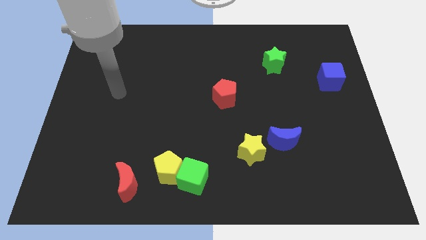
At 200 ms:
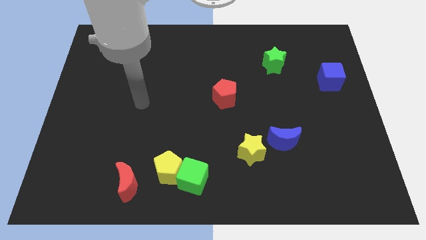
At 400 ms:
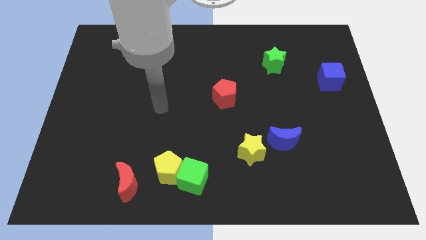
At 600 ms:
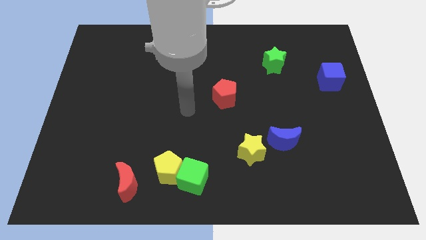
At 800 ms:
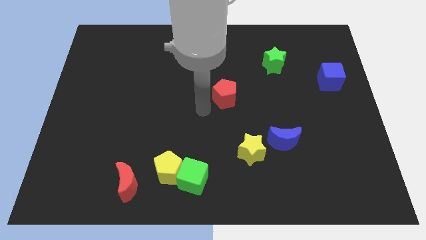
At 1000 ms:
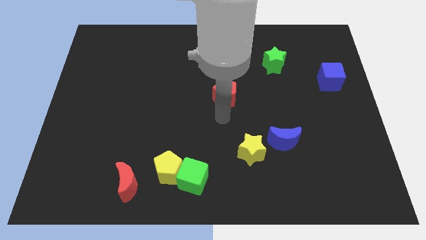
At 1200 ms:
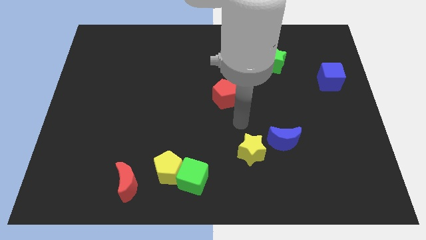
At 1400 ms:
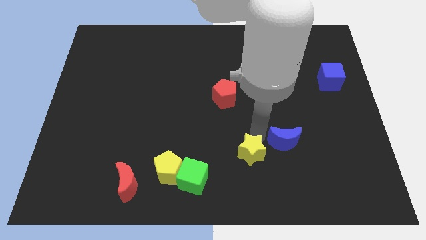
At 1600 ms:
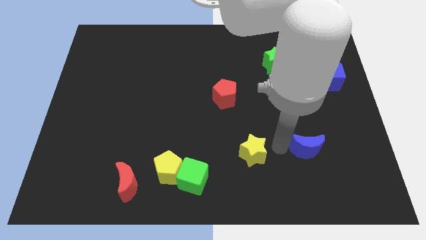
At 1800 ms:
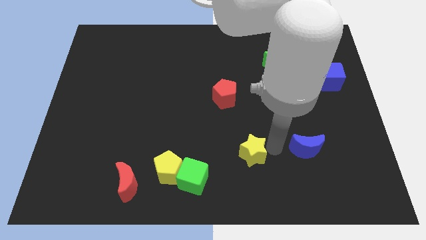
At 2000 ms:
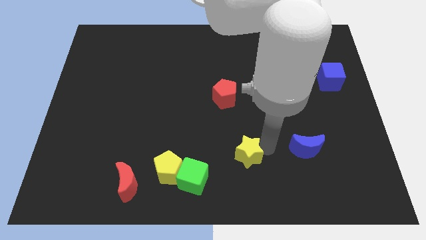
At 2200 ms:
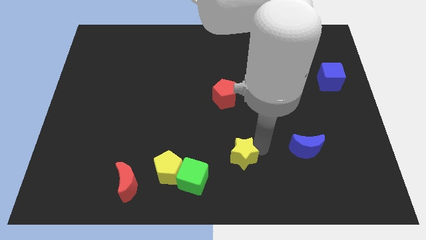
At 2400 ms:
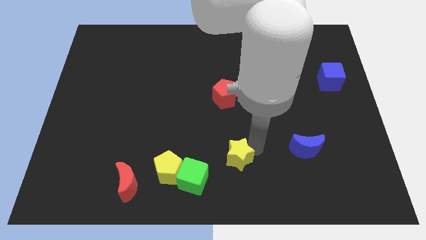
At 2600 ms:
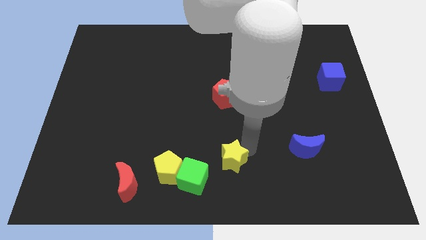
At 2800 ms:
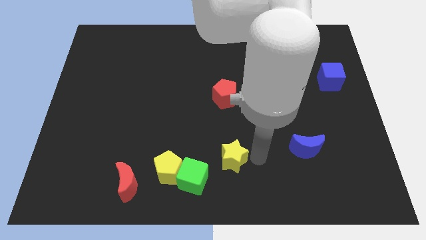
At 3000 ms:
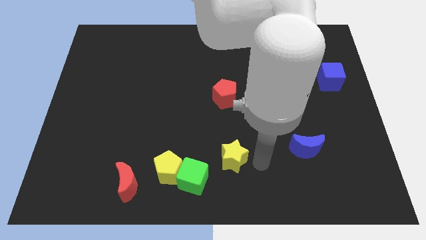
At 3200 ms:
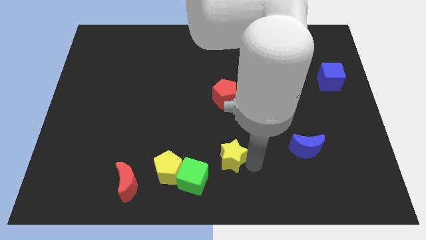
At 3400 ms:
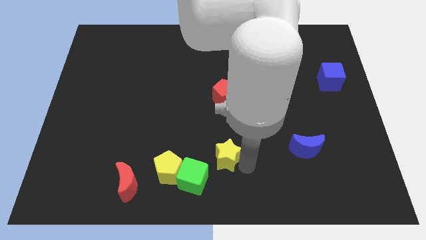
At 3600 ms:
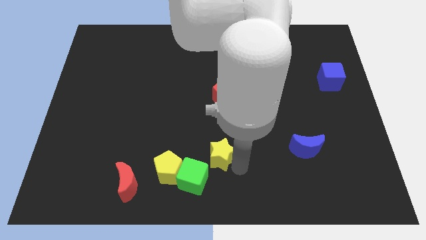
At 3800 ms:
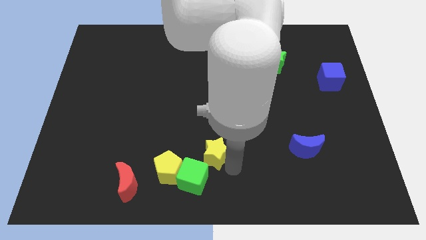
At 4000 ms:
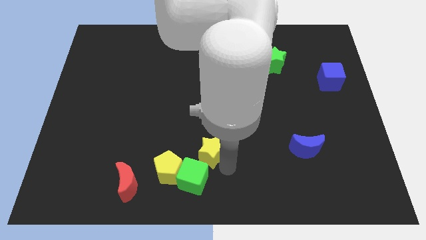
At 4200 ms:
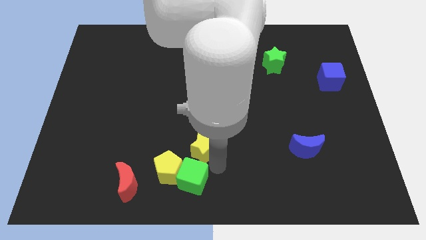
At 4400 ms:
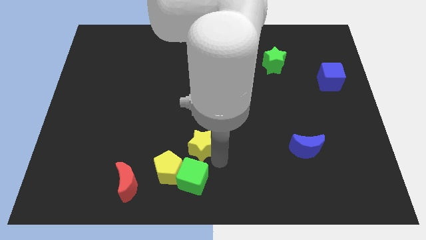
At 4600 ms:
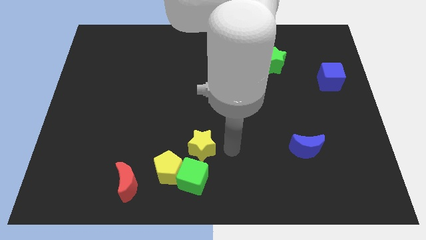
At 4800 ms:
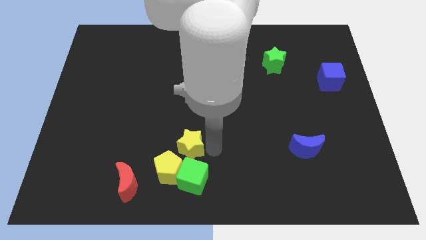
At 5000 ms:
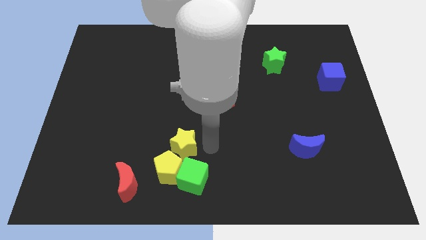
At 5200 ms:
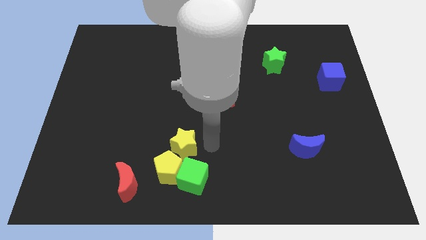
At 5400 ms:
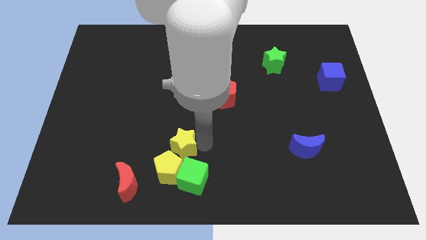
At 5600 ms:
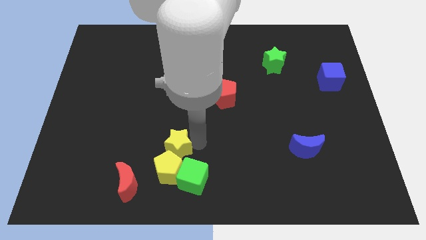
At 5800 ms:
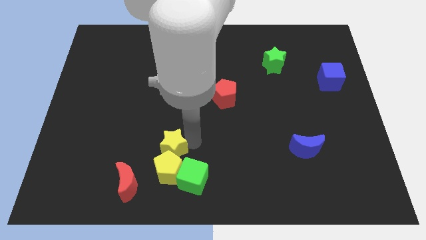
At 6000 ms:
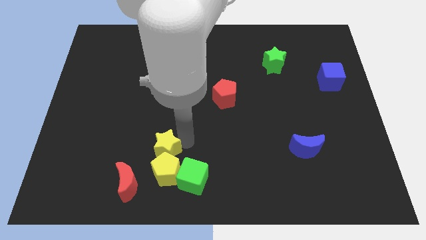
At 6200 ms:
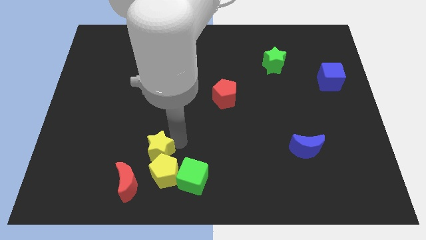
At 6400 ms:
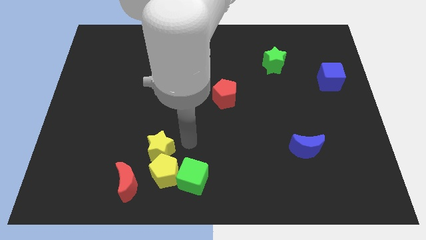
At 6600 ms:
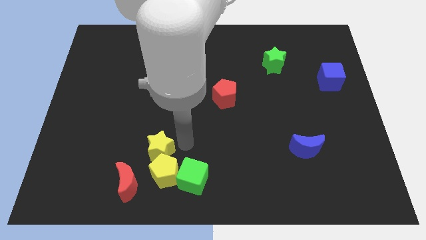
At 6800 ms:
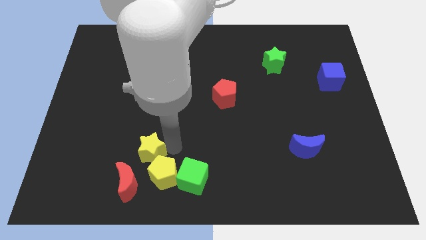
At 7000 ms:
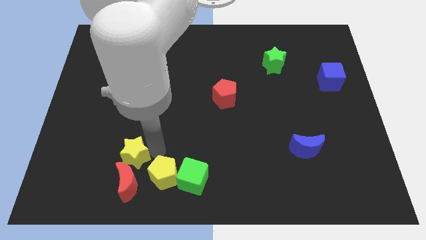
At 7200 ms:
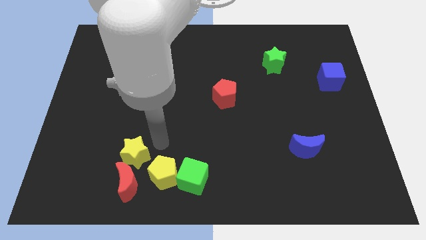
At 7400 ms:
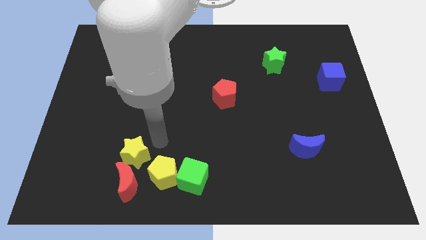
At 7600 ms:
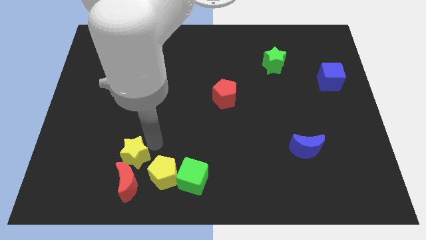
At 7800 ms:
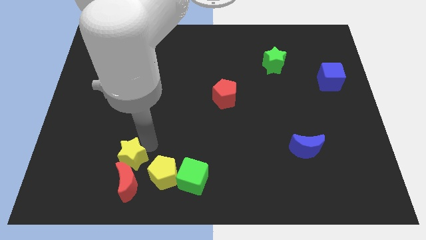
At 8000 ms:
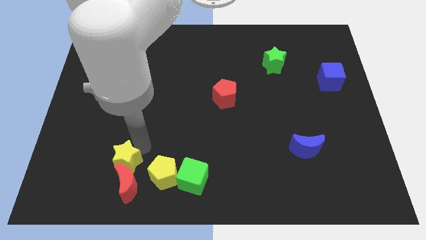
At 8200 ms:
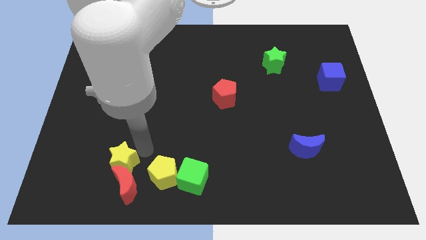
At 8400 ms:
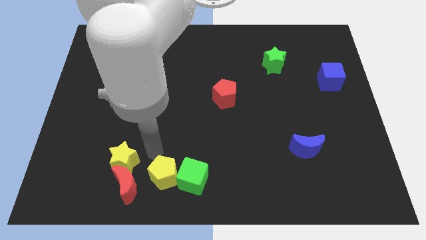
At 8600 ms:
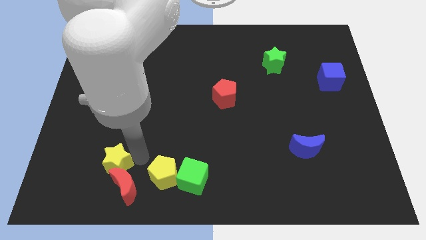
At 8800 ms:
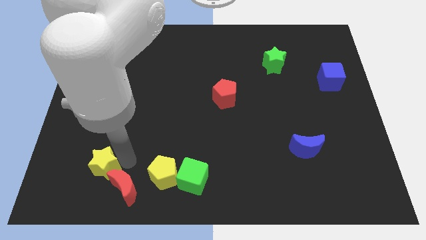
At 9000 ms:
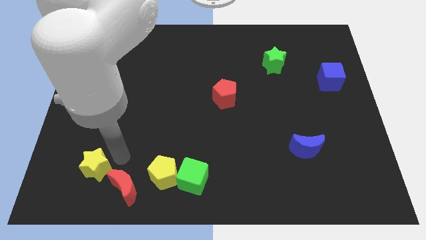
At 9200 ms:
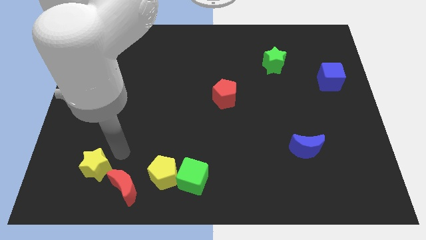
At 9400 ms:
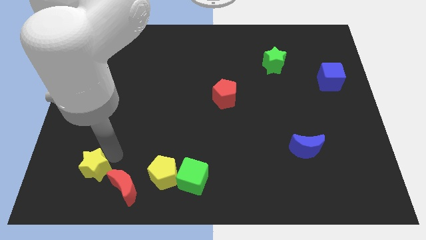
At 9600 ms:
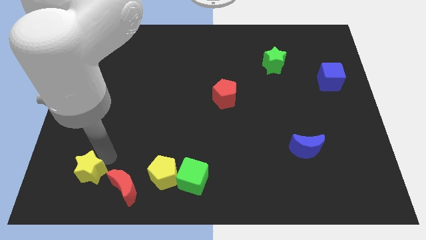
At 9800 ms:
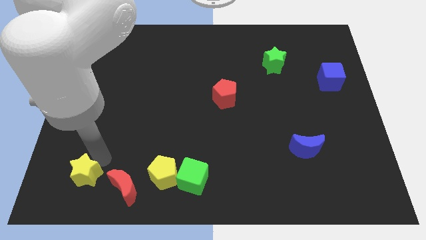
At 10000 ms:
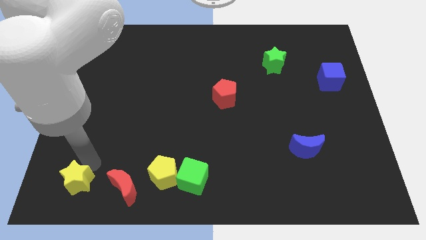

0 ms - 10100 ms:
slide the yellow star to the lower left corner

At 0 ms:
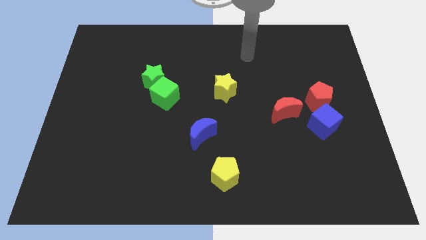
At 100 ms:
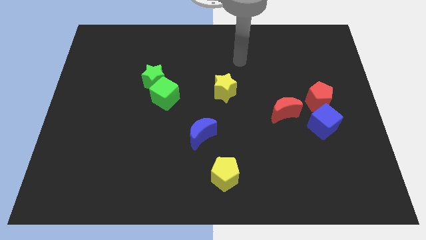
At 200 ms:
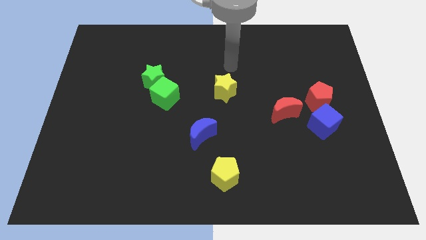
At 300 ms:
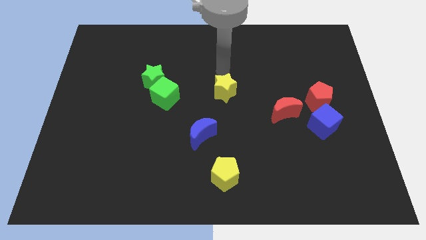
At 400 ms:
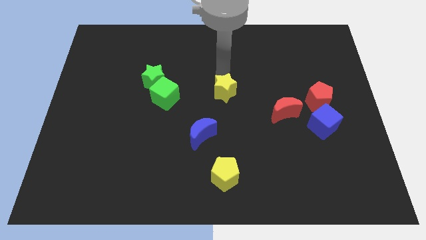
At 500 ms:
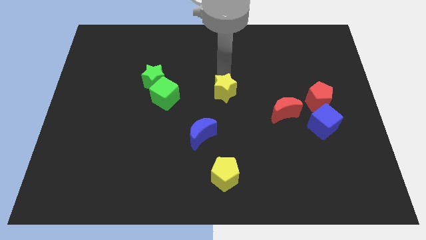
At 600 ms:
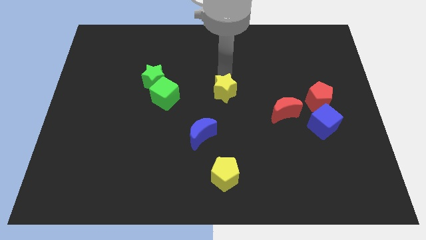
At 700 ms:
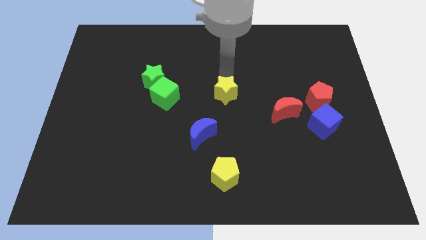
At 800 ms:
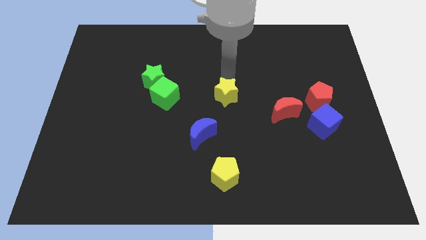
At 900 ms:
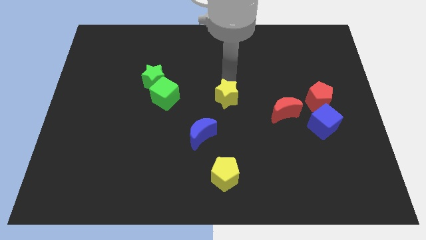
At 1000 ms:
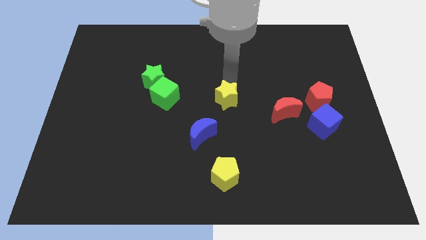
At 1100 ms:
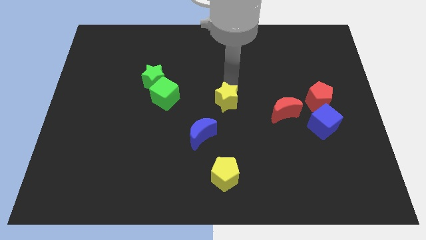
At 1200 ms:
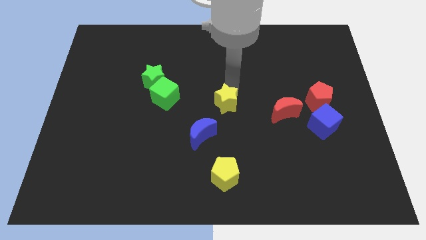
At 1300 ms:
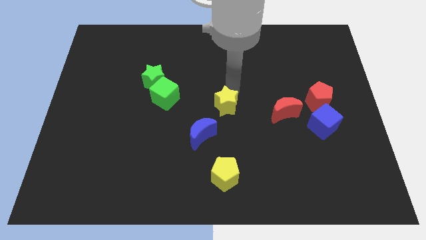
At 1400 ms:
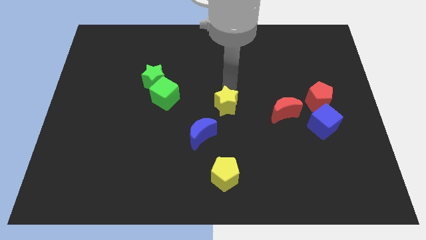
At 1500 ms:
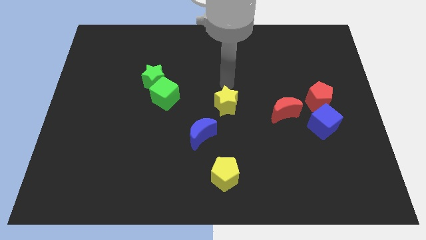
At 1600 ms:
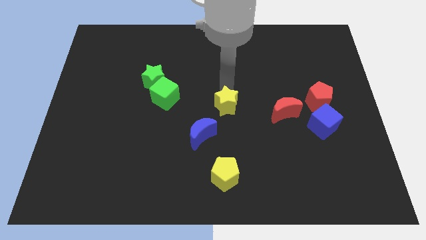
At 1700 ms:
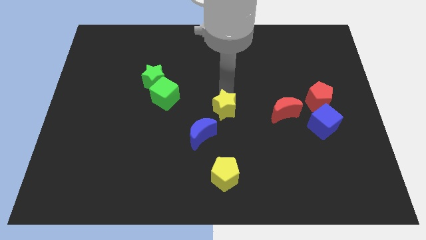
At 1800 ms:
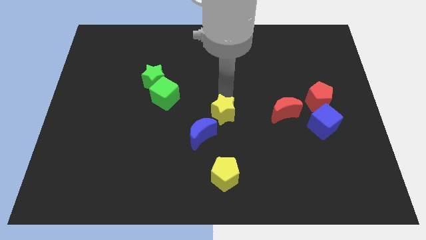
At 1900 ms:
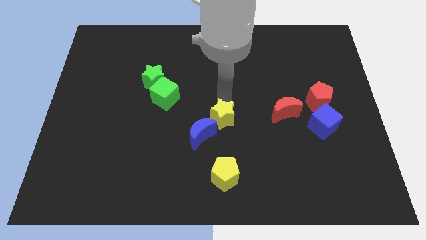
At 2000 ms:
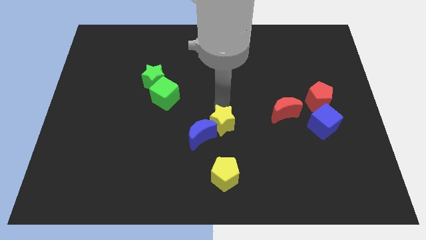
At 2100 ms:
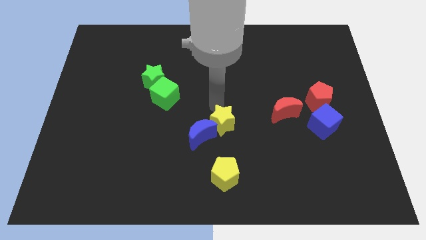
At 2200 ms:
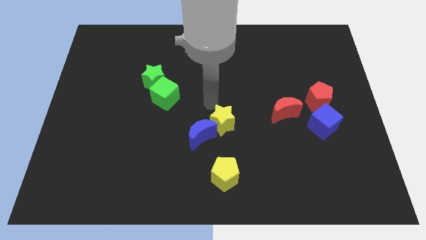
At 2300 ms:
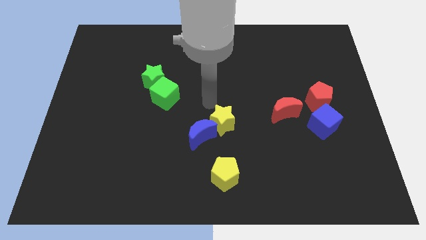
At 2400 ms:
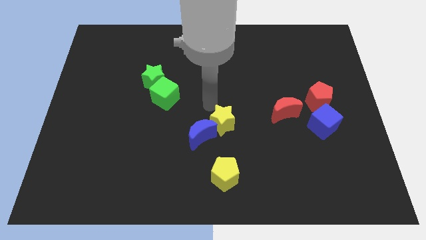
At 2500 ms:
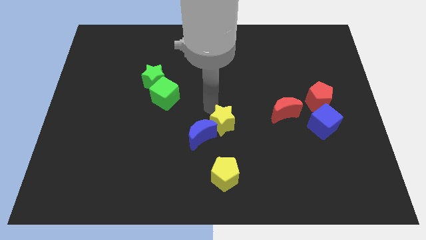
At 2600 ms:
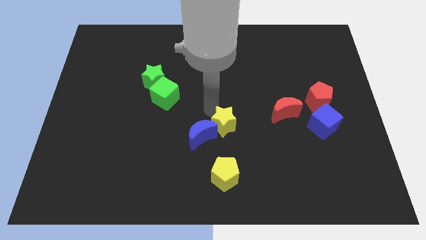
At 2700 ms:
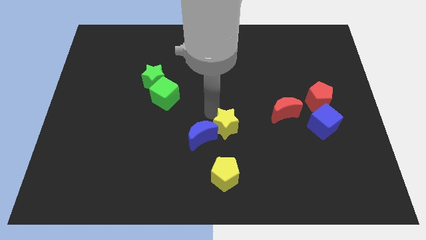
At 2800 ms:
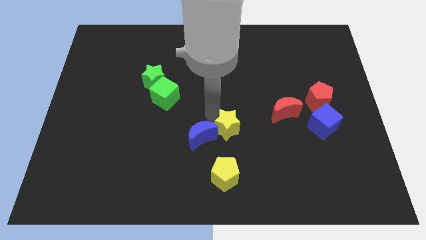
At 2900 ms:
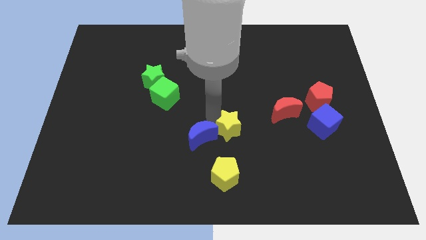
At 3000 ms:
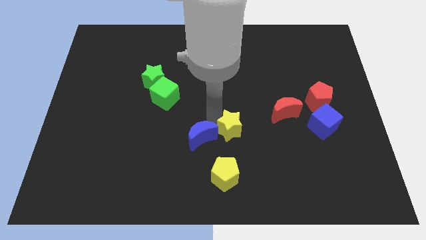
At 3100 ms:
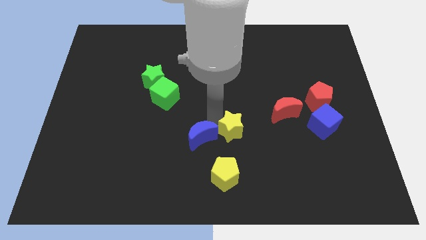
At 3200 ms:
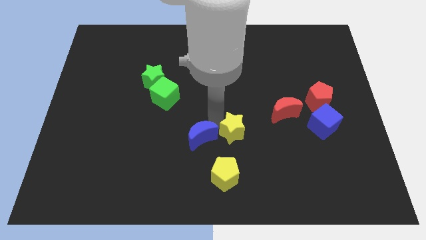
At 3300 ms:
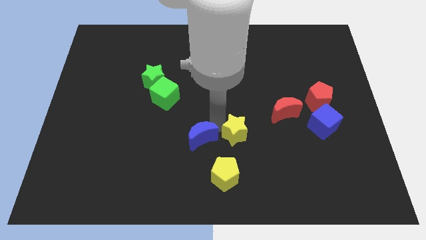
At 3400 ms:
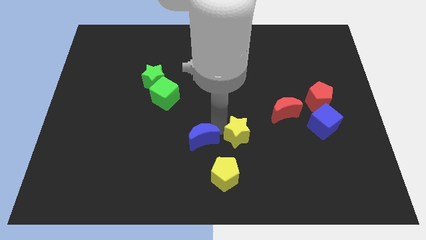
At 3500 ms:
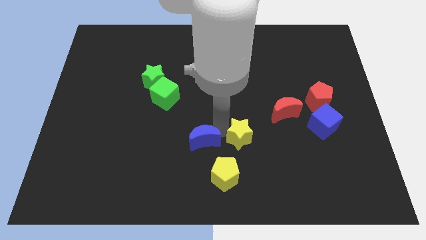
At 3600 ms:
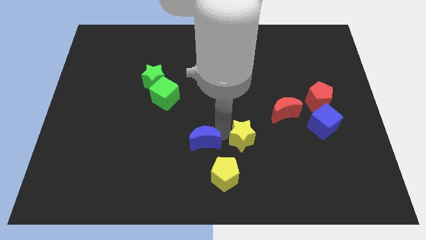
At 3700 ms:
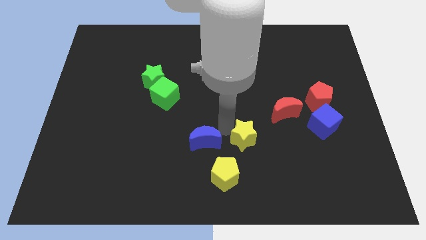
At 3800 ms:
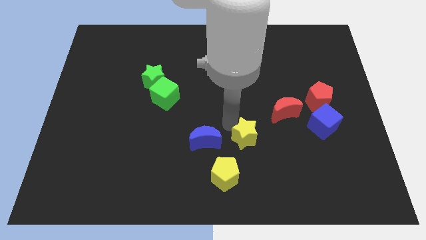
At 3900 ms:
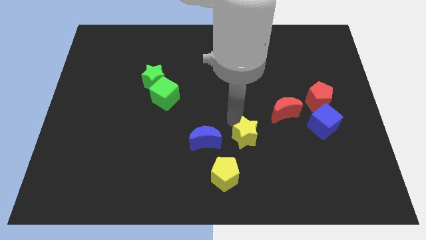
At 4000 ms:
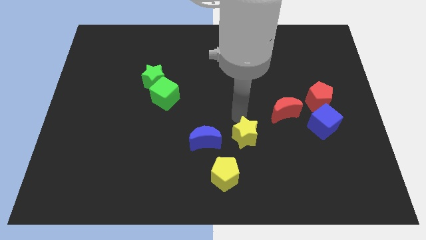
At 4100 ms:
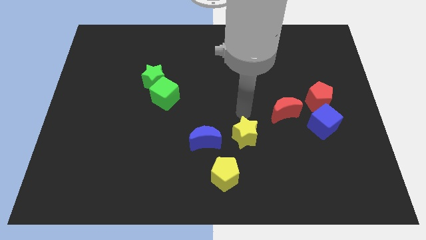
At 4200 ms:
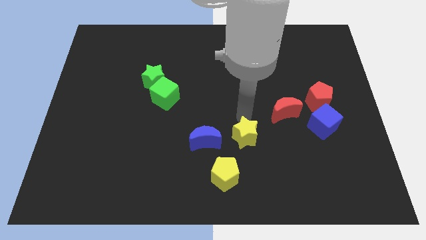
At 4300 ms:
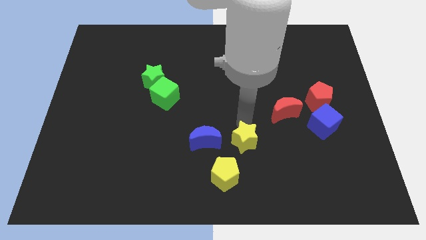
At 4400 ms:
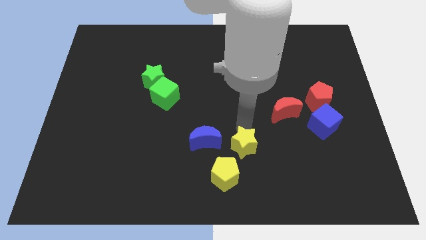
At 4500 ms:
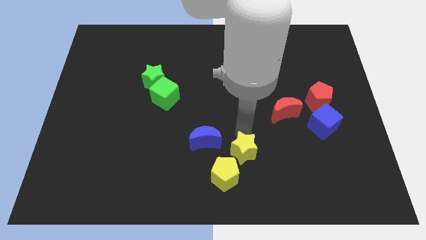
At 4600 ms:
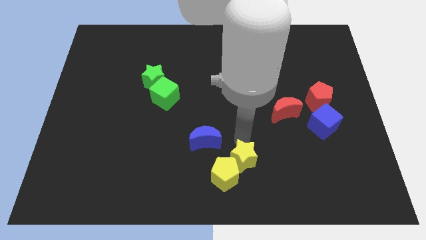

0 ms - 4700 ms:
move the yellow star to the bottom
